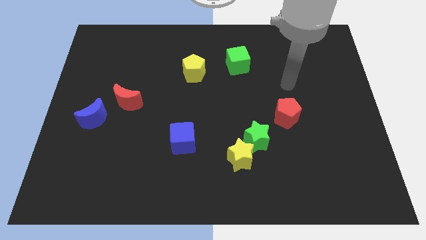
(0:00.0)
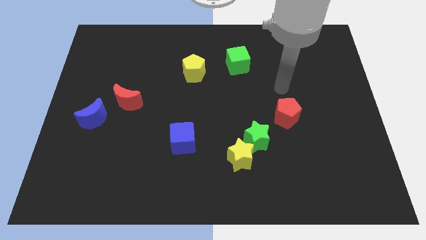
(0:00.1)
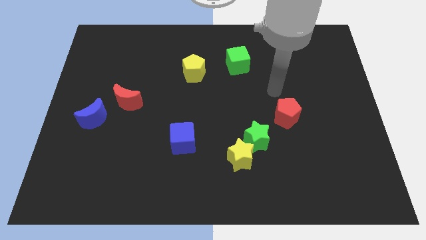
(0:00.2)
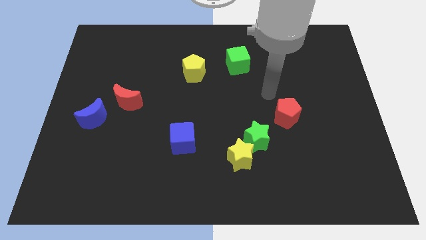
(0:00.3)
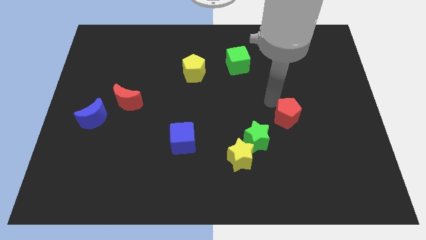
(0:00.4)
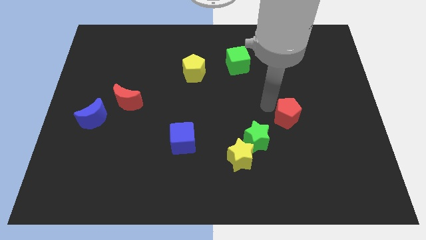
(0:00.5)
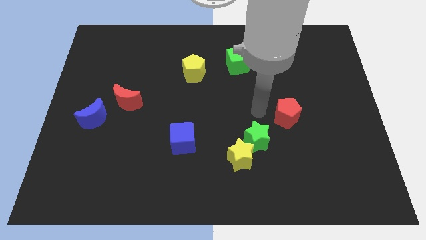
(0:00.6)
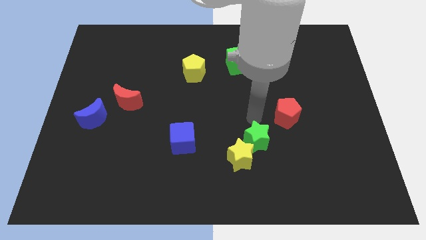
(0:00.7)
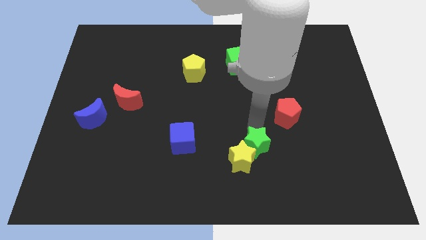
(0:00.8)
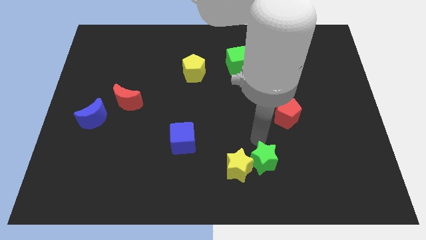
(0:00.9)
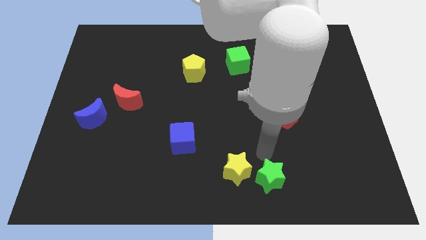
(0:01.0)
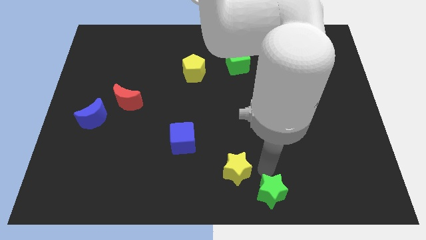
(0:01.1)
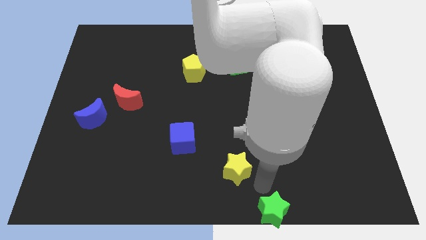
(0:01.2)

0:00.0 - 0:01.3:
move the yellow star away from the green star

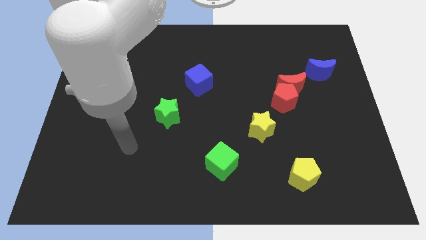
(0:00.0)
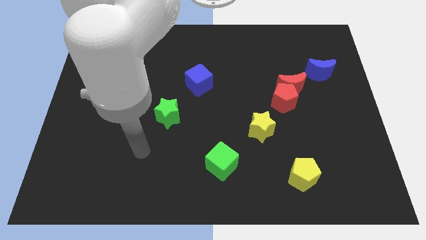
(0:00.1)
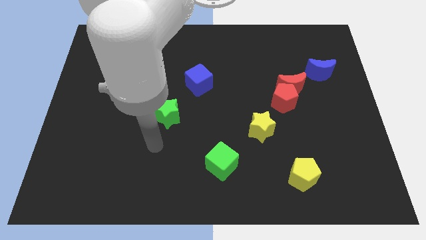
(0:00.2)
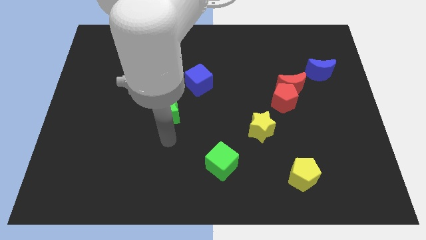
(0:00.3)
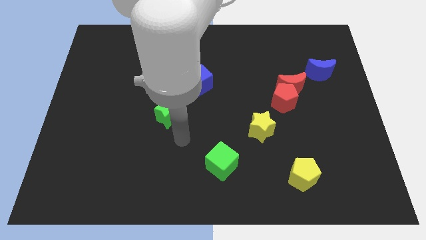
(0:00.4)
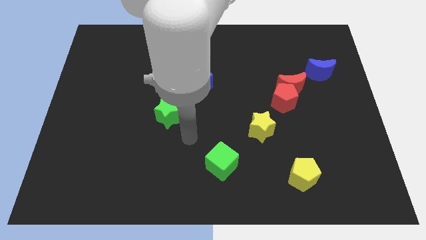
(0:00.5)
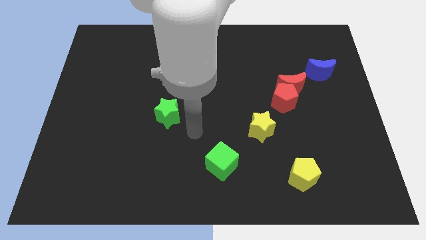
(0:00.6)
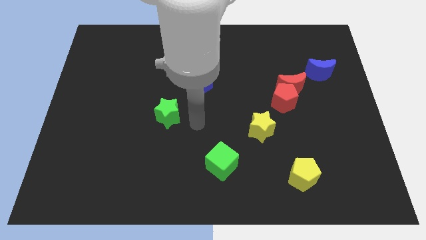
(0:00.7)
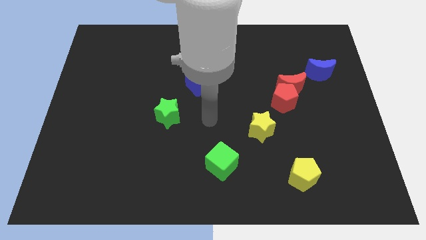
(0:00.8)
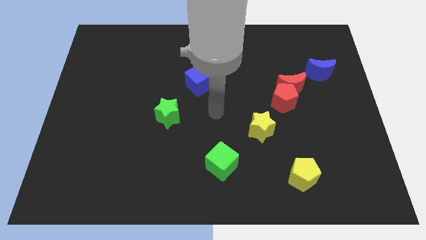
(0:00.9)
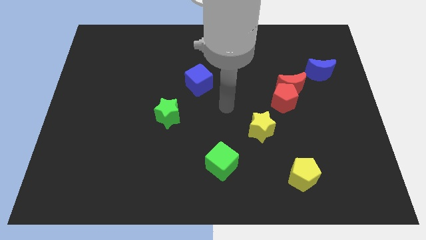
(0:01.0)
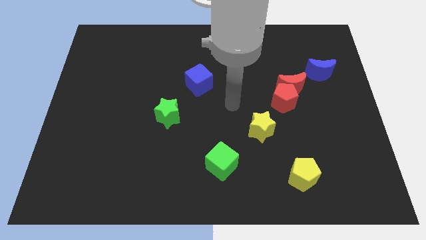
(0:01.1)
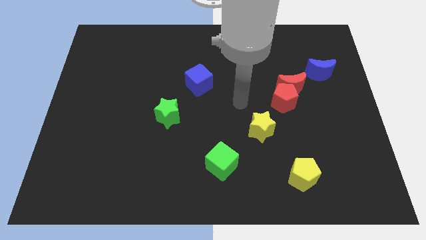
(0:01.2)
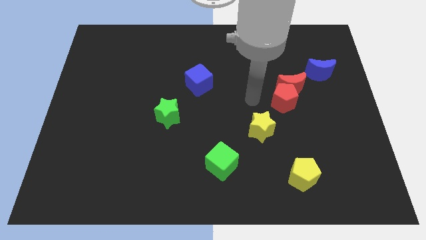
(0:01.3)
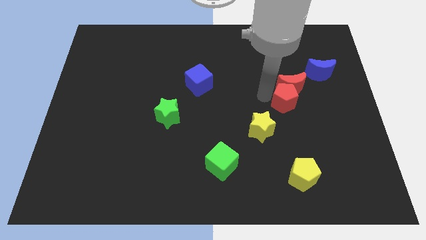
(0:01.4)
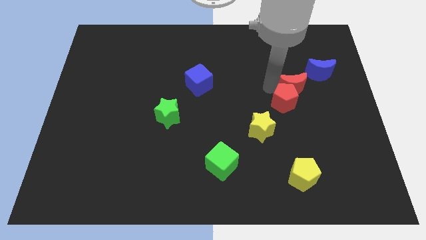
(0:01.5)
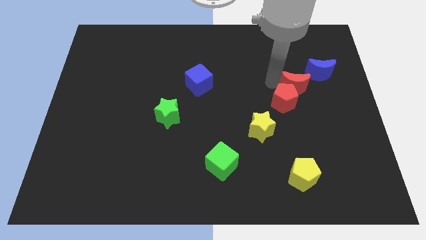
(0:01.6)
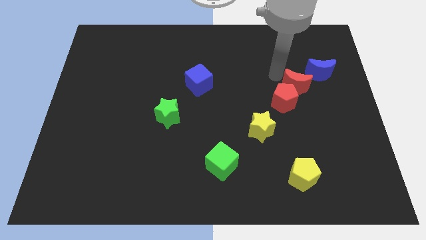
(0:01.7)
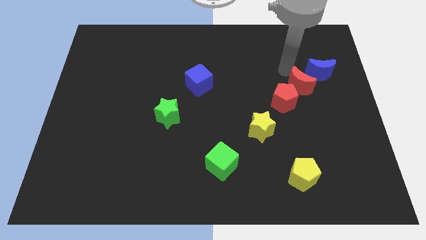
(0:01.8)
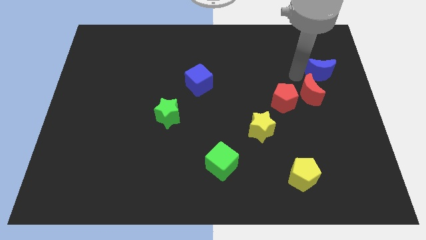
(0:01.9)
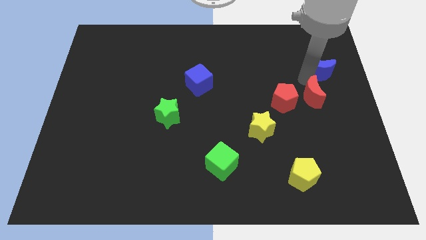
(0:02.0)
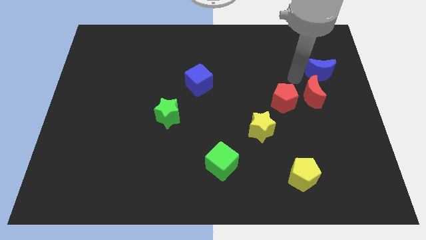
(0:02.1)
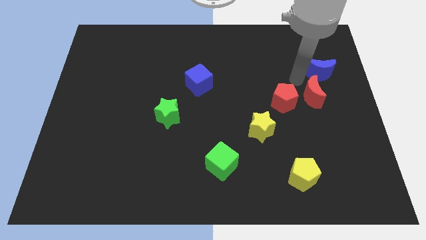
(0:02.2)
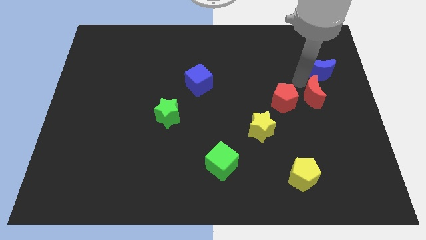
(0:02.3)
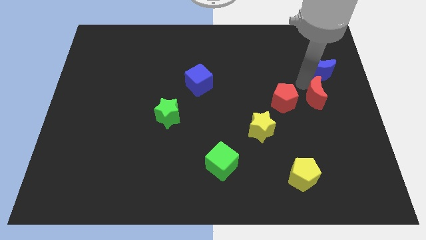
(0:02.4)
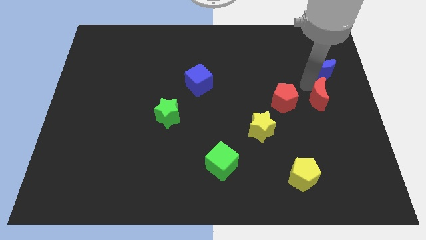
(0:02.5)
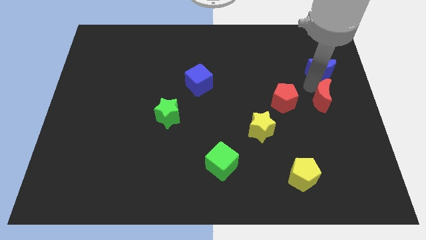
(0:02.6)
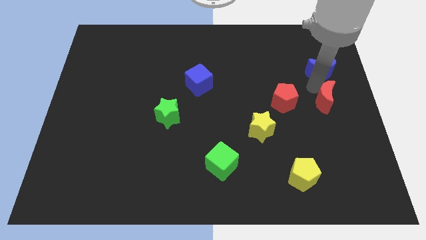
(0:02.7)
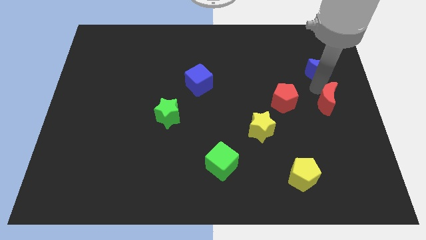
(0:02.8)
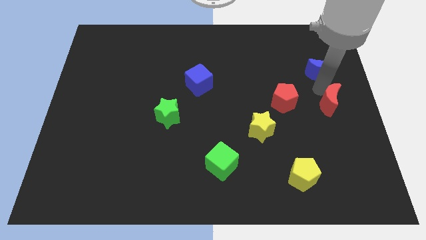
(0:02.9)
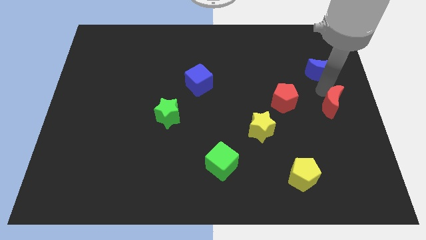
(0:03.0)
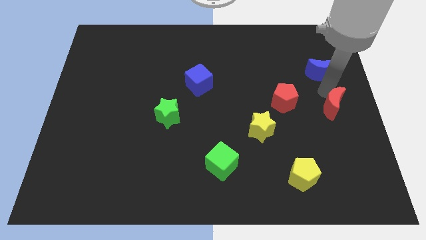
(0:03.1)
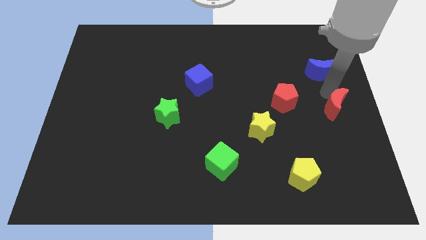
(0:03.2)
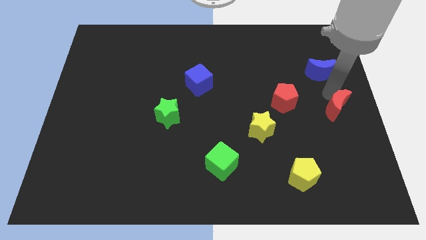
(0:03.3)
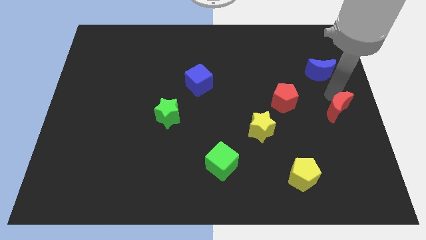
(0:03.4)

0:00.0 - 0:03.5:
move the red moon away from the red pentagon and blue moon

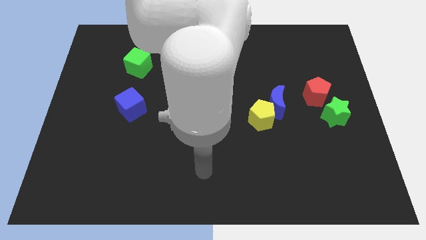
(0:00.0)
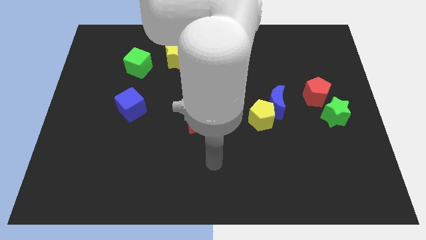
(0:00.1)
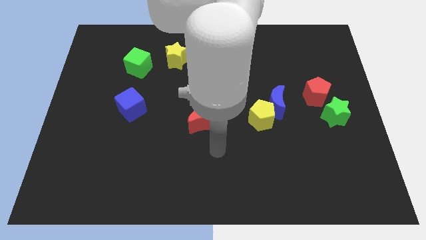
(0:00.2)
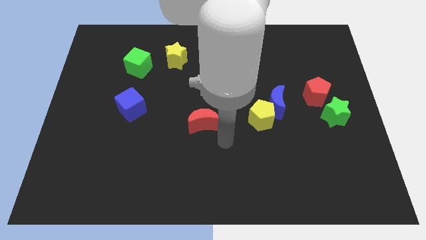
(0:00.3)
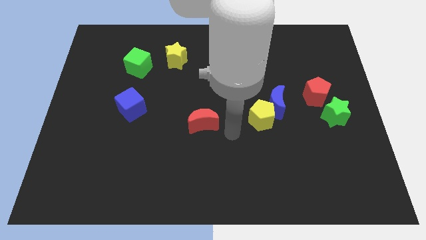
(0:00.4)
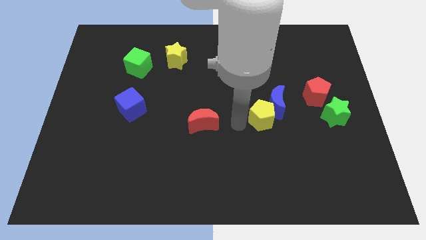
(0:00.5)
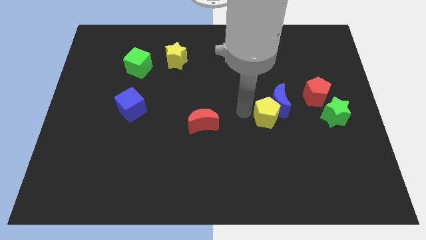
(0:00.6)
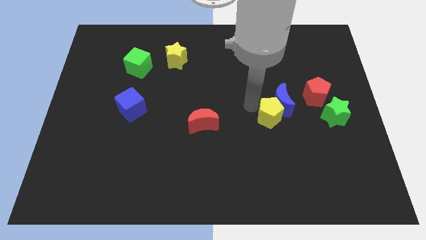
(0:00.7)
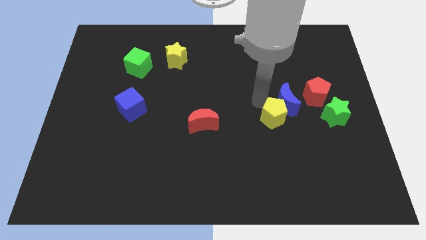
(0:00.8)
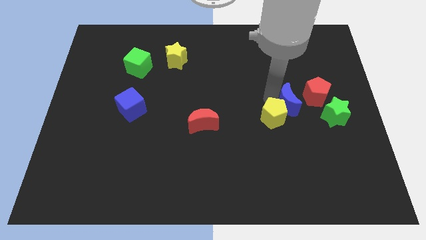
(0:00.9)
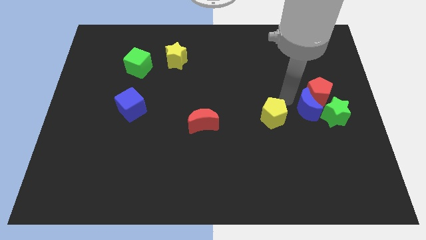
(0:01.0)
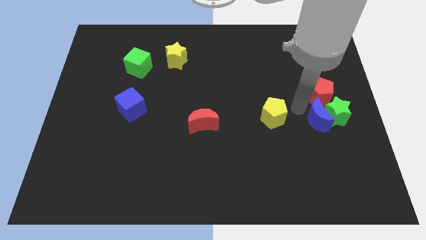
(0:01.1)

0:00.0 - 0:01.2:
separate the yellow pentagon from the blue moon

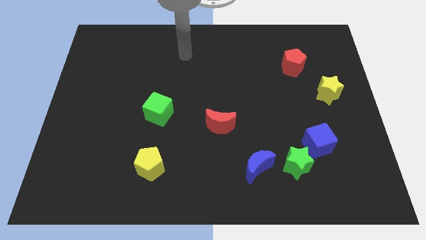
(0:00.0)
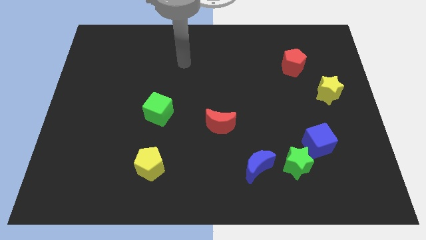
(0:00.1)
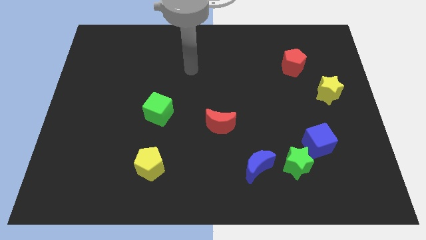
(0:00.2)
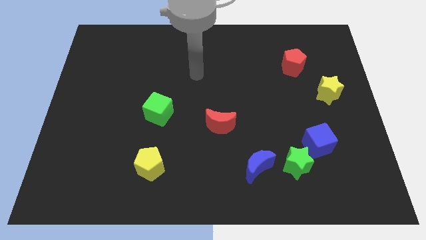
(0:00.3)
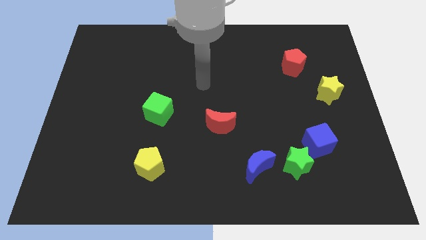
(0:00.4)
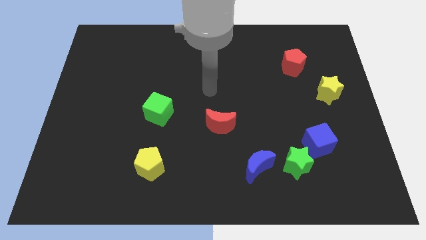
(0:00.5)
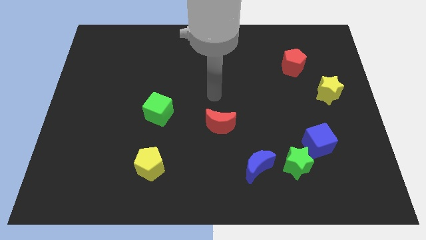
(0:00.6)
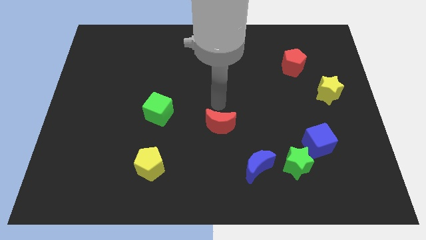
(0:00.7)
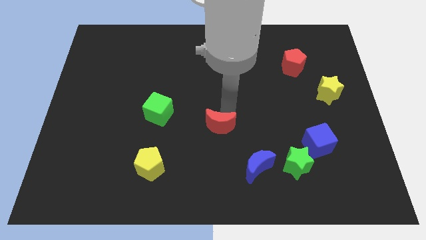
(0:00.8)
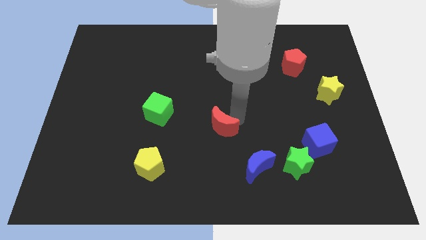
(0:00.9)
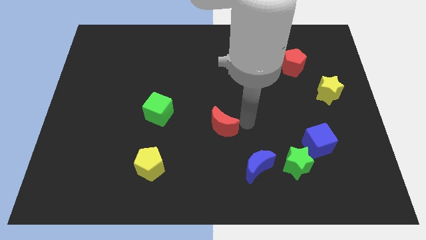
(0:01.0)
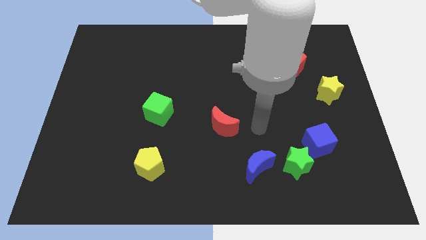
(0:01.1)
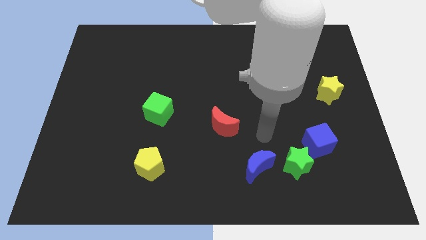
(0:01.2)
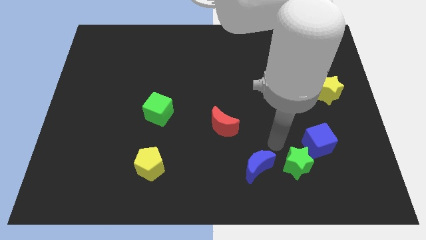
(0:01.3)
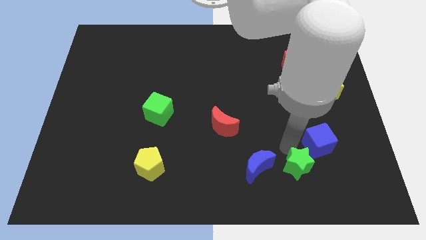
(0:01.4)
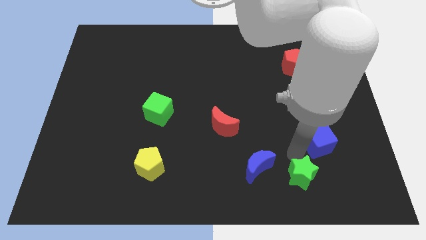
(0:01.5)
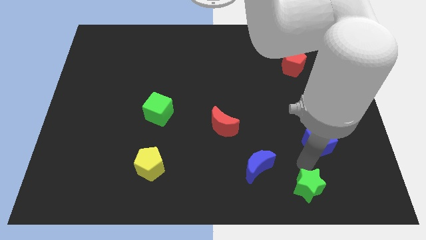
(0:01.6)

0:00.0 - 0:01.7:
move the blue cube away from the green star

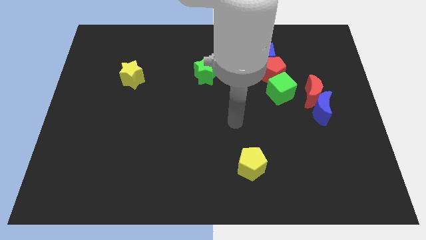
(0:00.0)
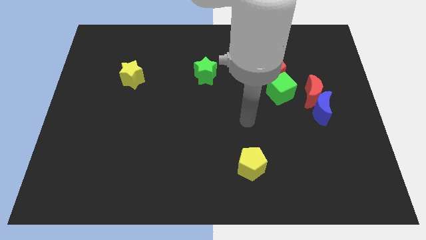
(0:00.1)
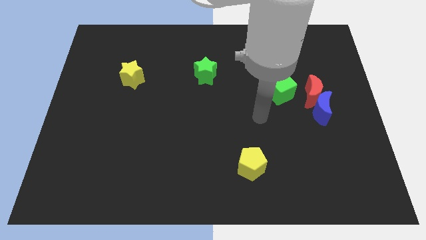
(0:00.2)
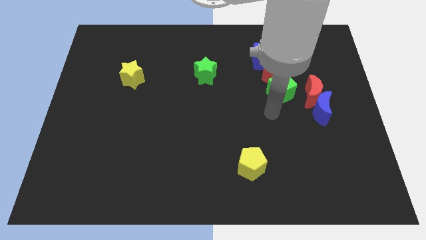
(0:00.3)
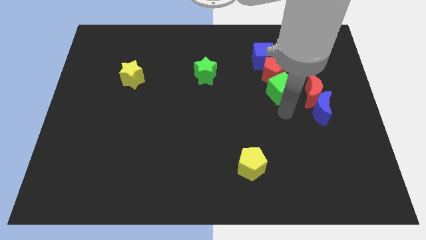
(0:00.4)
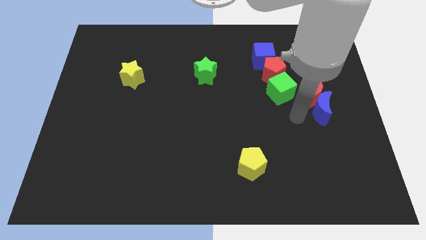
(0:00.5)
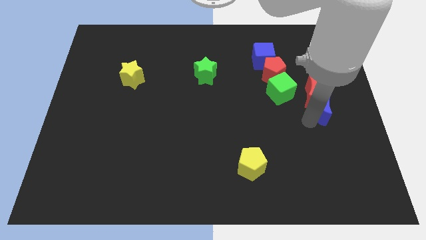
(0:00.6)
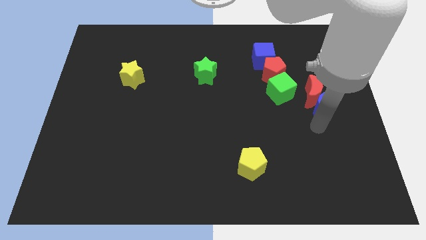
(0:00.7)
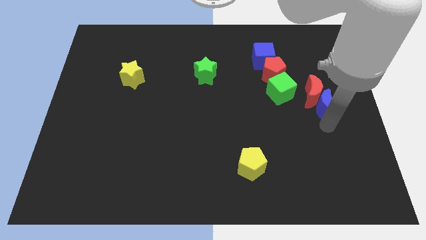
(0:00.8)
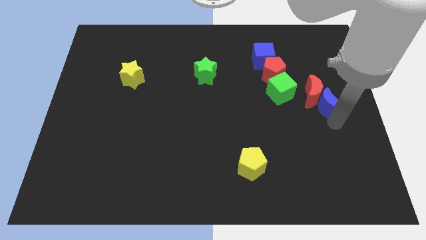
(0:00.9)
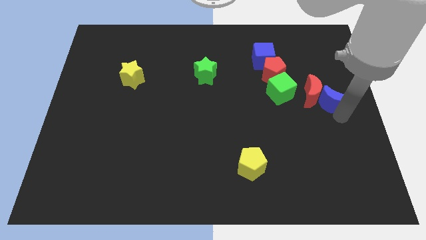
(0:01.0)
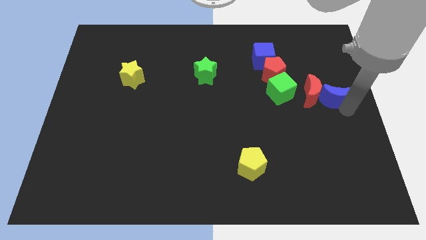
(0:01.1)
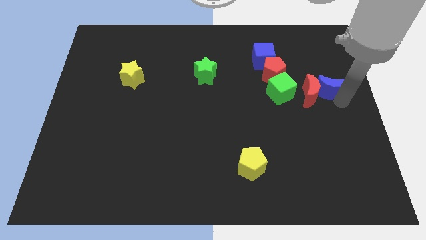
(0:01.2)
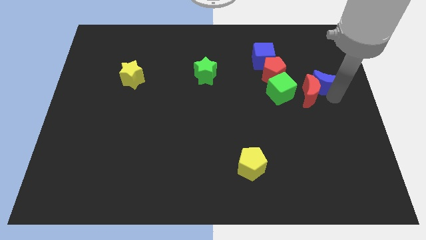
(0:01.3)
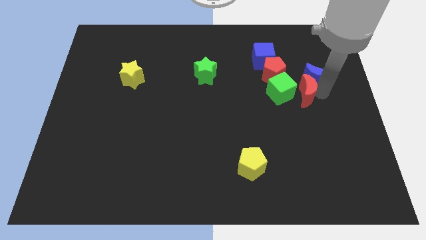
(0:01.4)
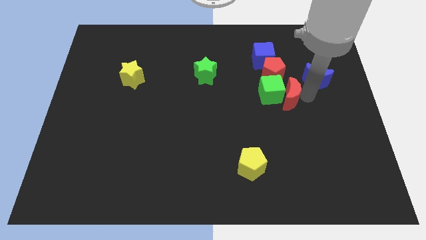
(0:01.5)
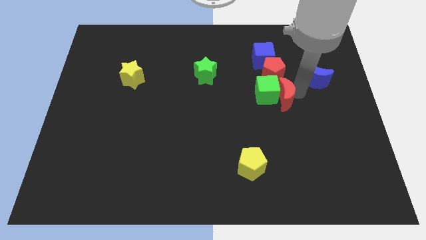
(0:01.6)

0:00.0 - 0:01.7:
move the blue moon away from the red moon

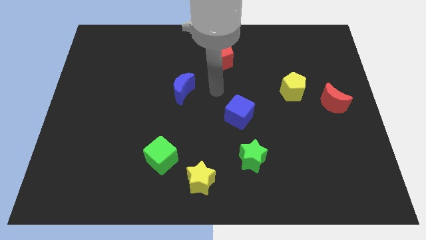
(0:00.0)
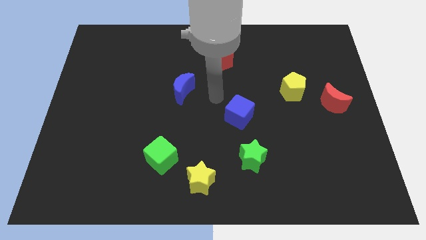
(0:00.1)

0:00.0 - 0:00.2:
separate the green cube from the yellow star
